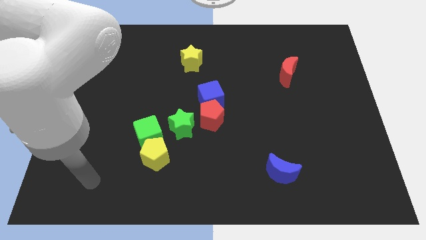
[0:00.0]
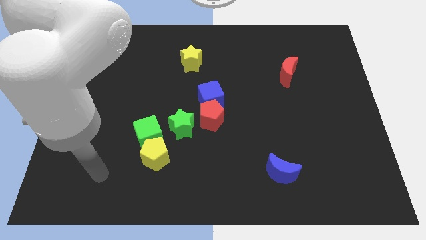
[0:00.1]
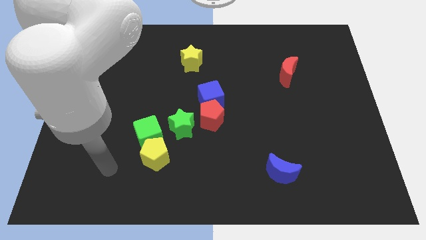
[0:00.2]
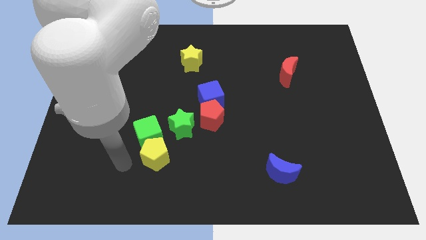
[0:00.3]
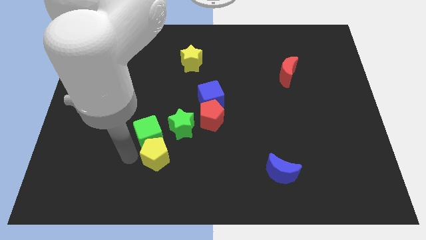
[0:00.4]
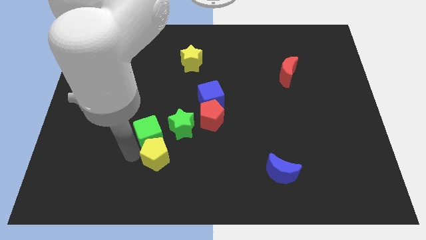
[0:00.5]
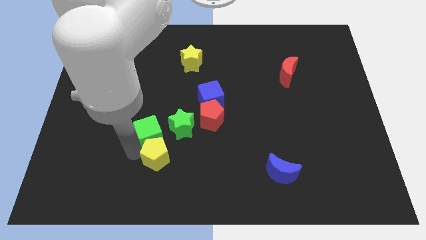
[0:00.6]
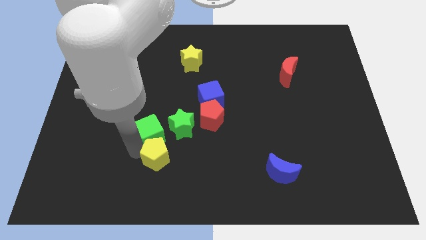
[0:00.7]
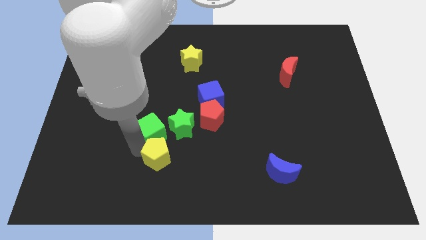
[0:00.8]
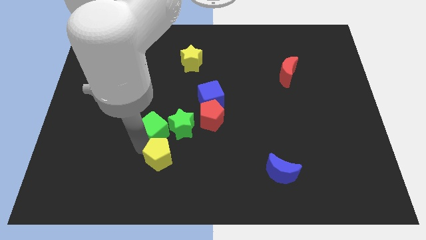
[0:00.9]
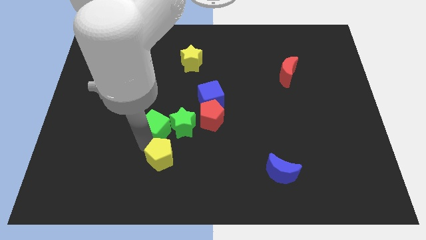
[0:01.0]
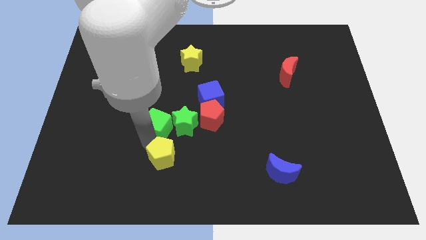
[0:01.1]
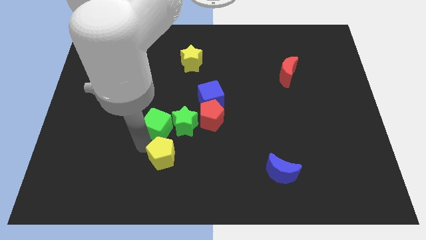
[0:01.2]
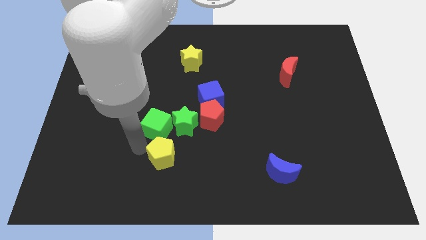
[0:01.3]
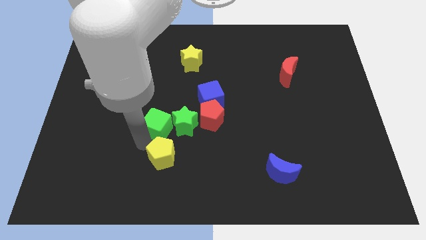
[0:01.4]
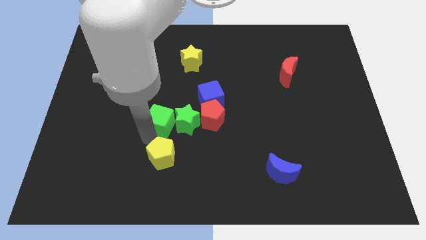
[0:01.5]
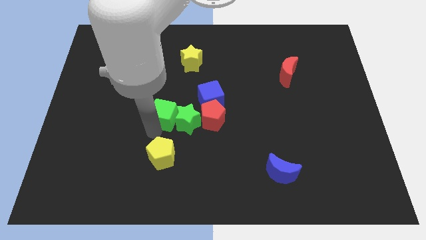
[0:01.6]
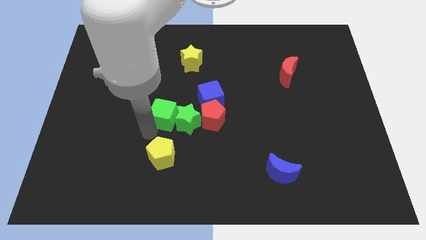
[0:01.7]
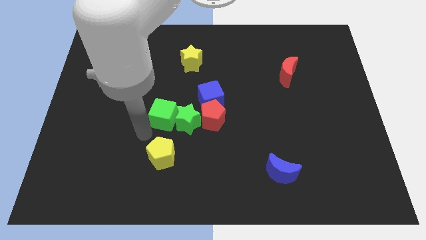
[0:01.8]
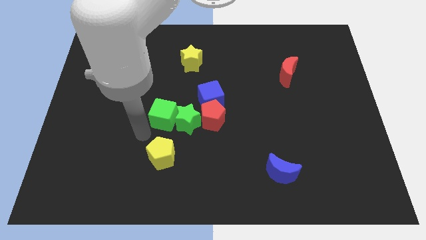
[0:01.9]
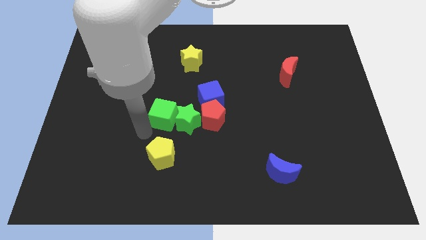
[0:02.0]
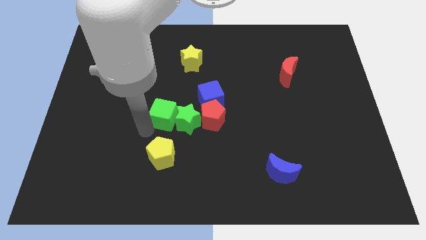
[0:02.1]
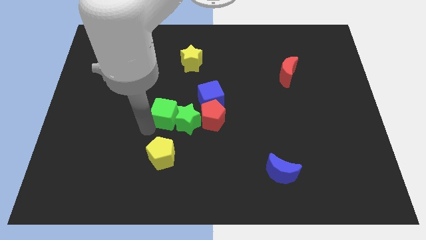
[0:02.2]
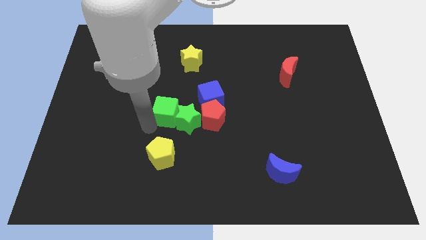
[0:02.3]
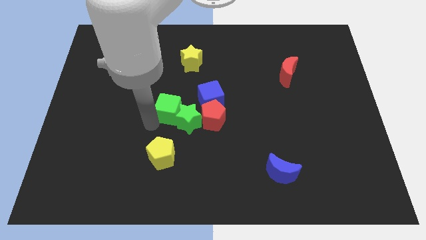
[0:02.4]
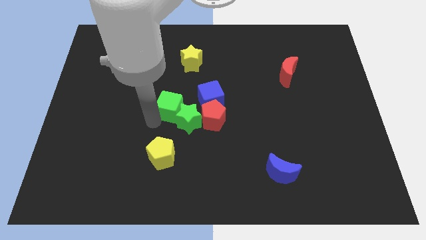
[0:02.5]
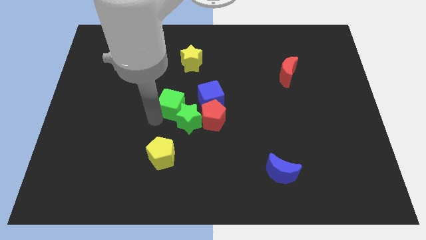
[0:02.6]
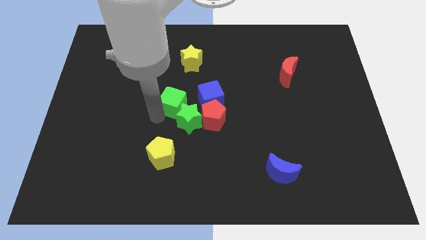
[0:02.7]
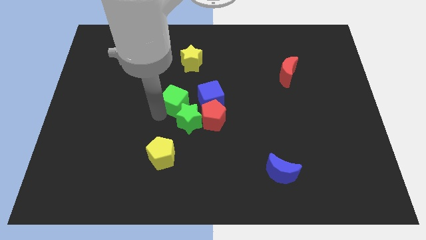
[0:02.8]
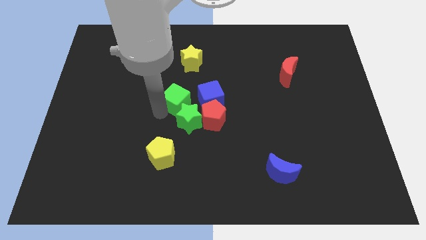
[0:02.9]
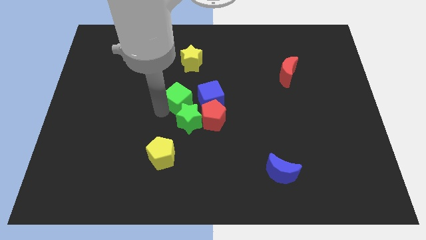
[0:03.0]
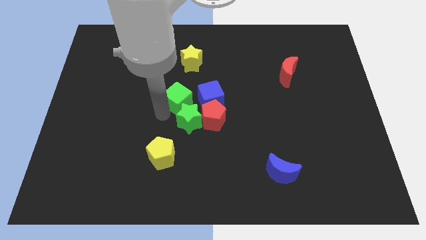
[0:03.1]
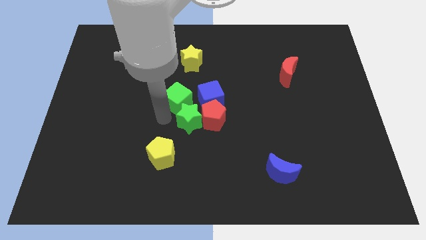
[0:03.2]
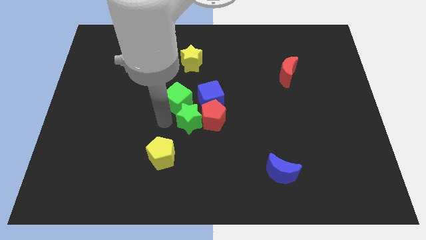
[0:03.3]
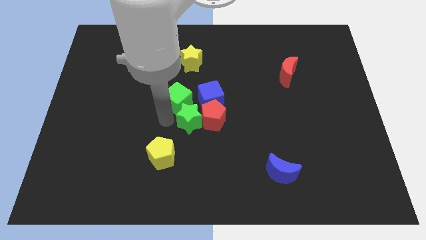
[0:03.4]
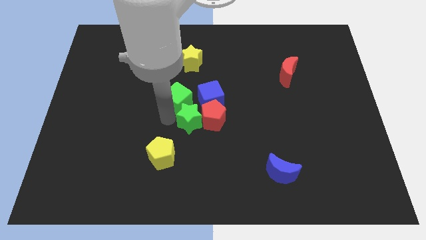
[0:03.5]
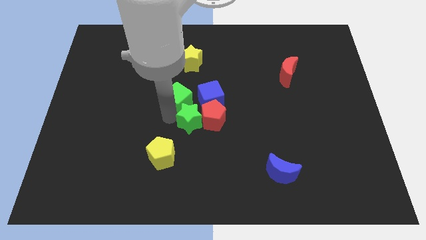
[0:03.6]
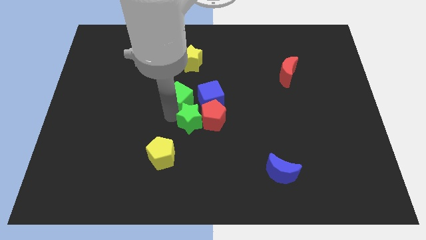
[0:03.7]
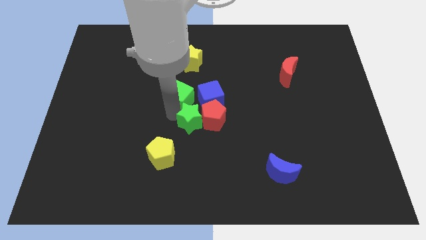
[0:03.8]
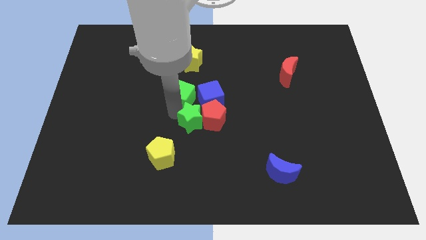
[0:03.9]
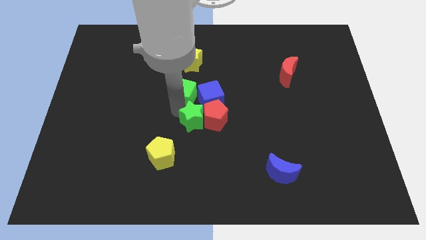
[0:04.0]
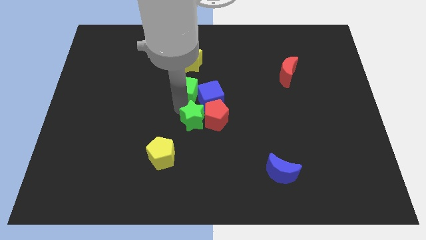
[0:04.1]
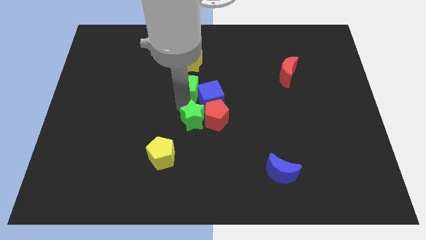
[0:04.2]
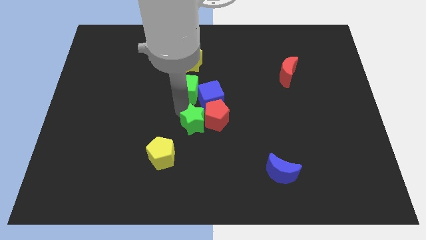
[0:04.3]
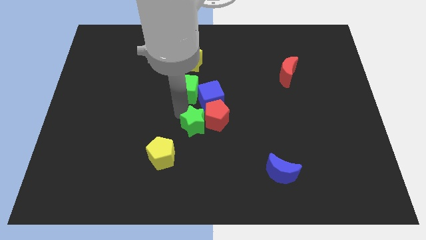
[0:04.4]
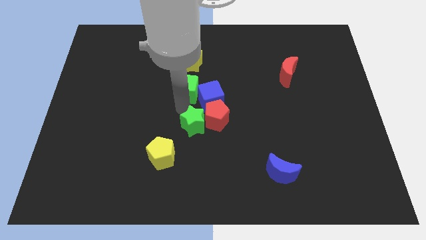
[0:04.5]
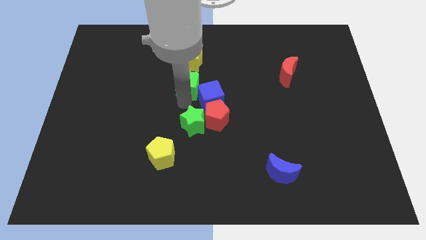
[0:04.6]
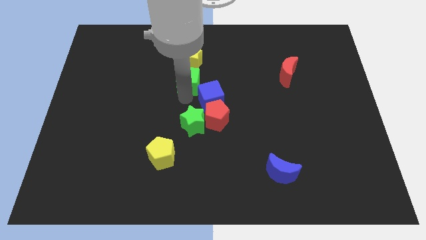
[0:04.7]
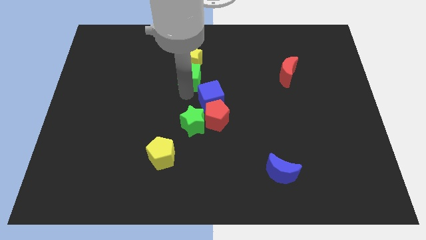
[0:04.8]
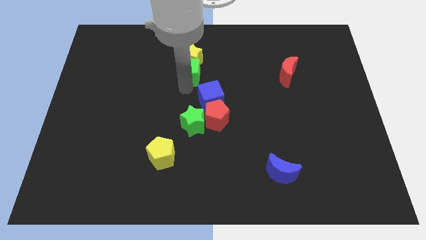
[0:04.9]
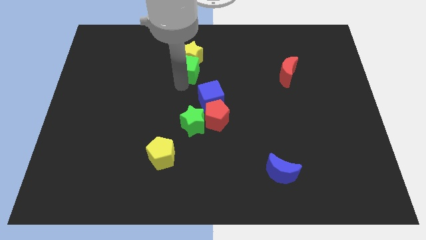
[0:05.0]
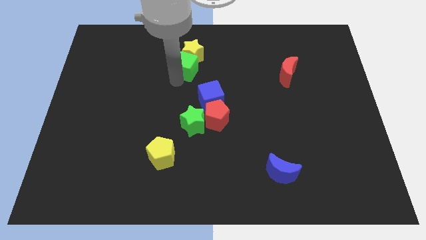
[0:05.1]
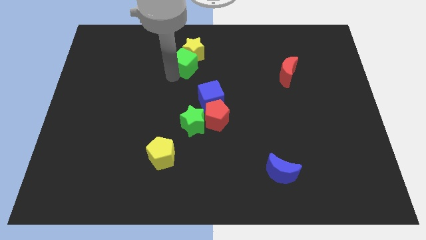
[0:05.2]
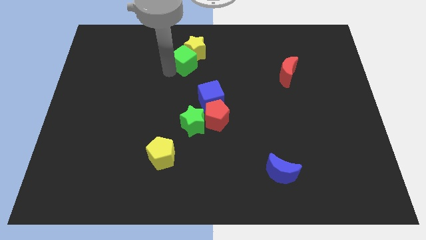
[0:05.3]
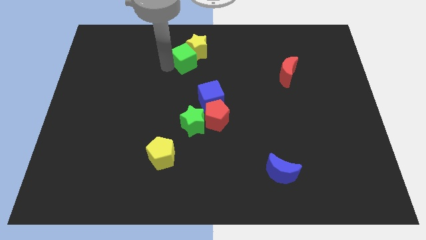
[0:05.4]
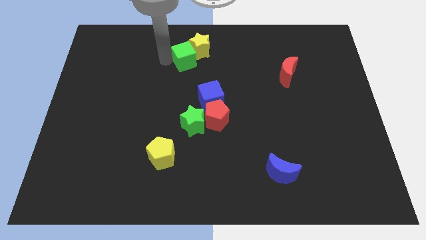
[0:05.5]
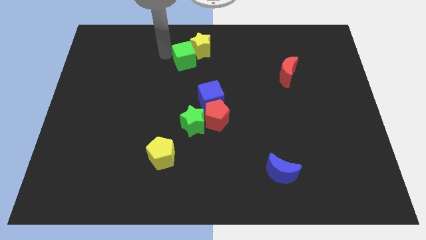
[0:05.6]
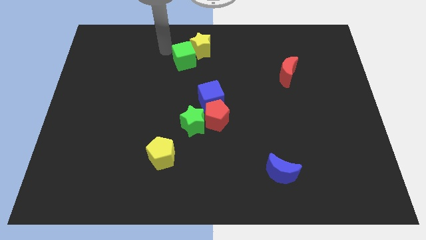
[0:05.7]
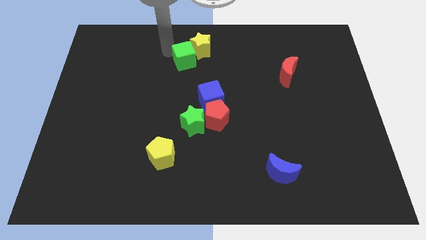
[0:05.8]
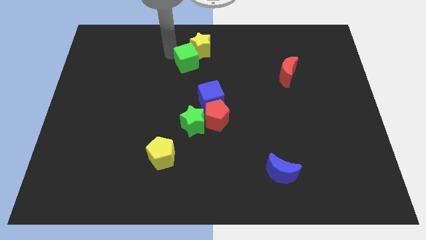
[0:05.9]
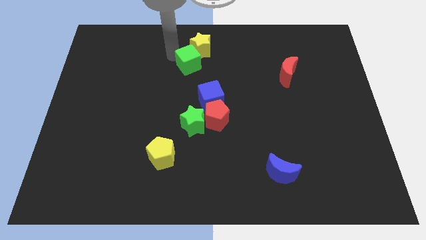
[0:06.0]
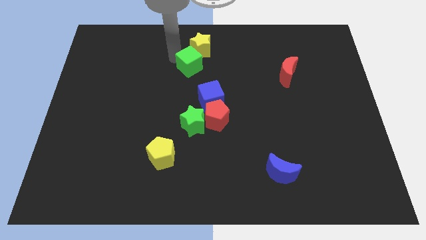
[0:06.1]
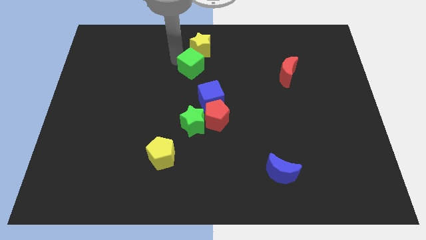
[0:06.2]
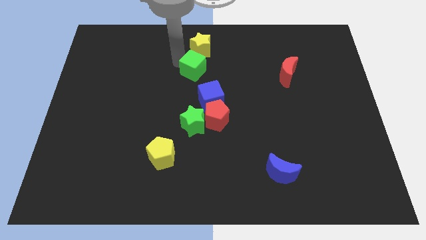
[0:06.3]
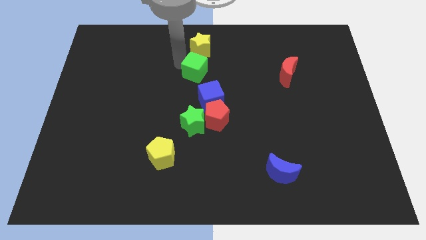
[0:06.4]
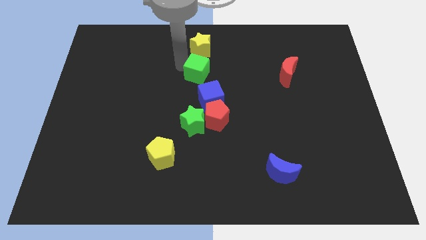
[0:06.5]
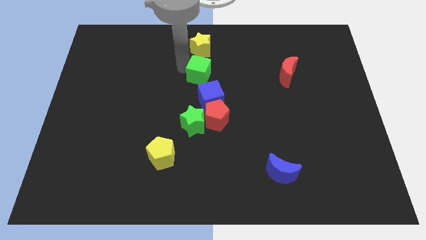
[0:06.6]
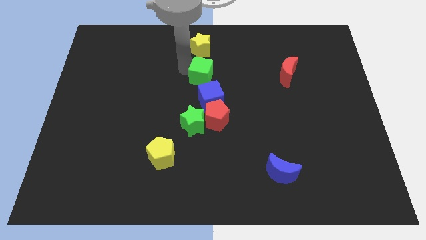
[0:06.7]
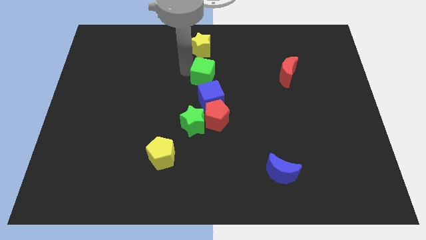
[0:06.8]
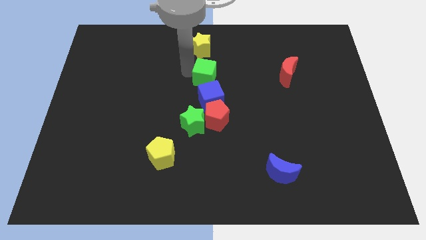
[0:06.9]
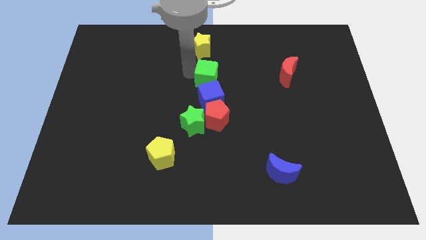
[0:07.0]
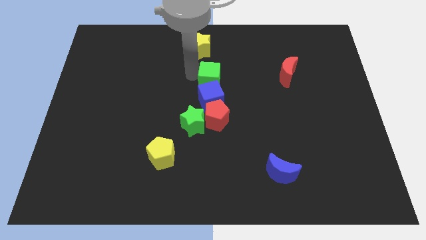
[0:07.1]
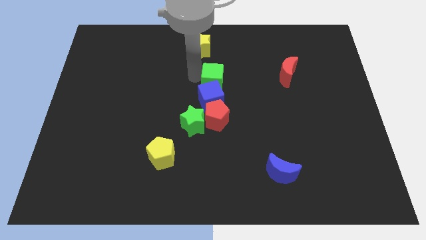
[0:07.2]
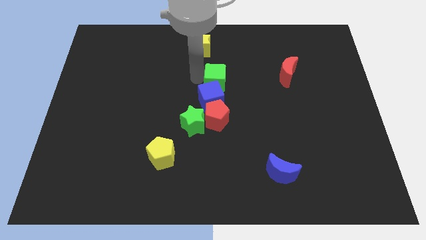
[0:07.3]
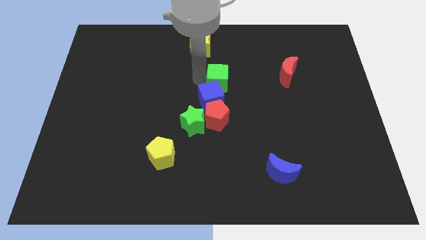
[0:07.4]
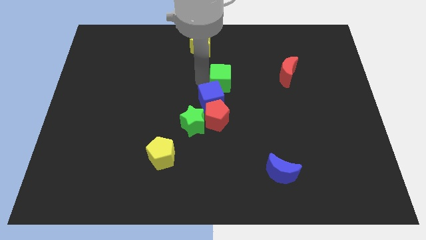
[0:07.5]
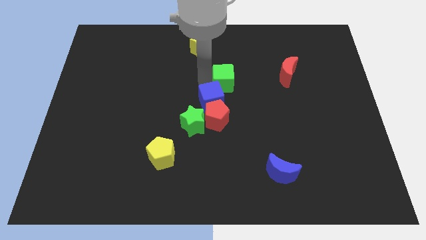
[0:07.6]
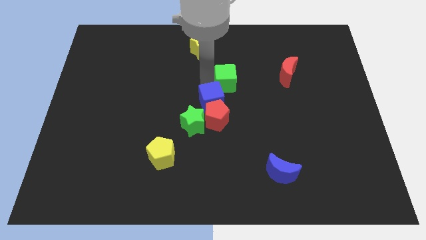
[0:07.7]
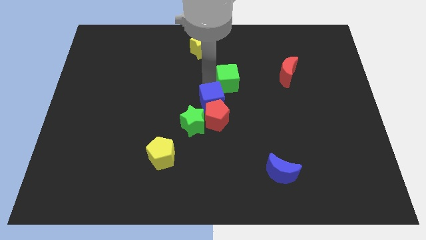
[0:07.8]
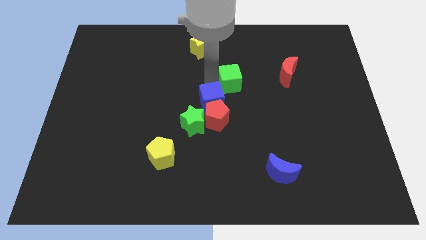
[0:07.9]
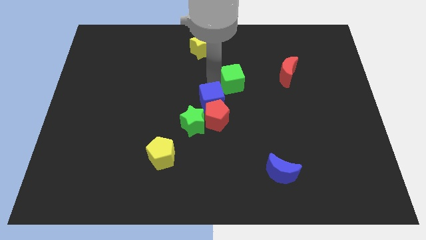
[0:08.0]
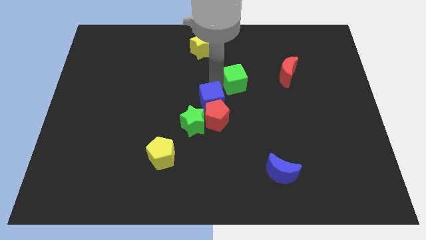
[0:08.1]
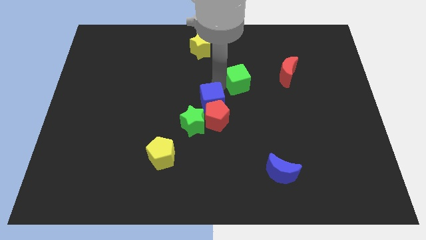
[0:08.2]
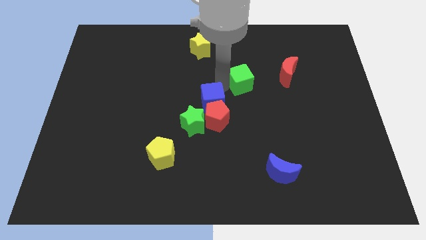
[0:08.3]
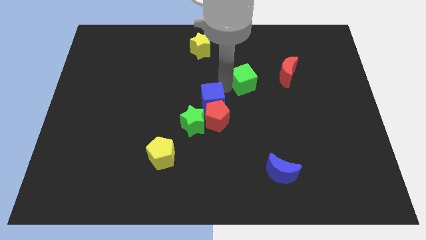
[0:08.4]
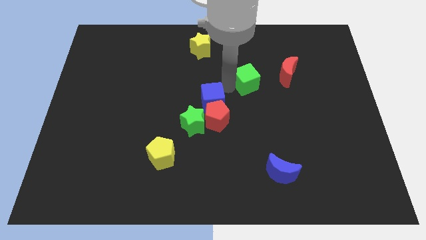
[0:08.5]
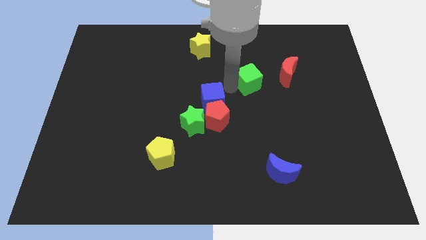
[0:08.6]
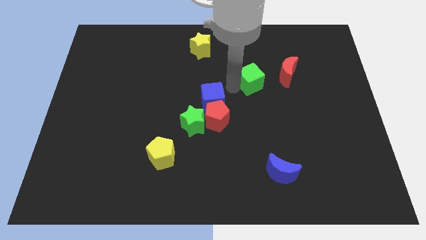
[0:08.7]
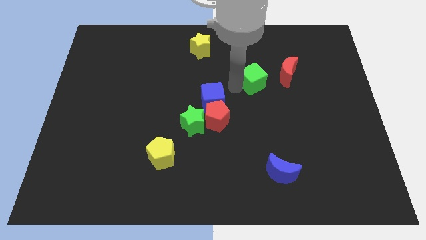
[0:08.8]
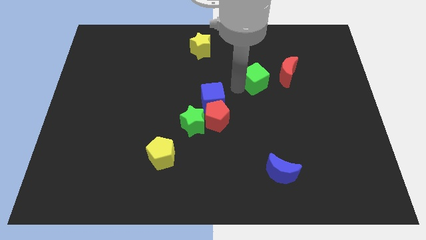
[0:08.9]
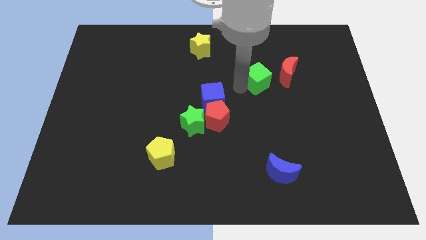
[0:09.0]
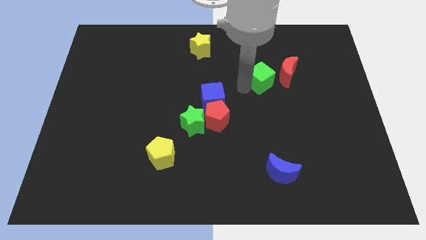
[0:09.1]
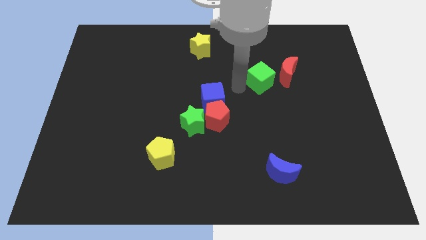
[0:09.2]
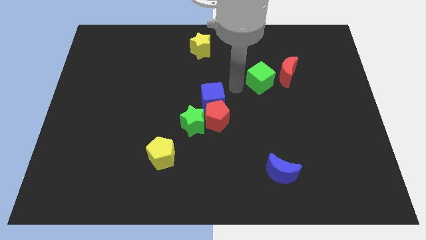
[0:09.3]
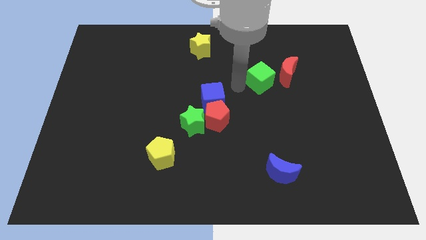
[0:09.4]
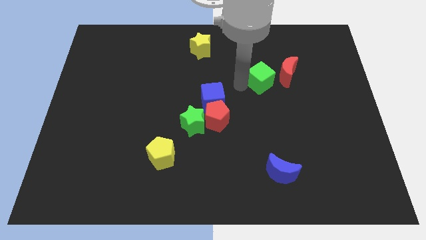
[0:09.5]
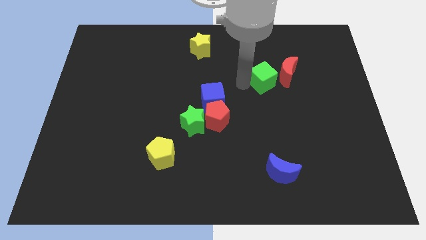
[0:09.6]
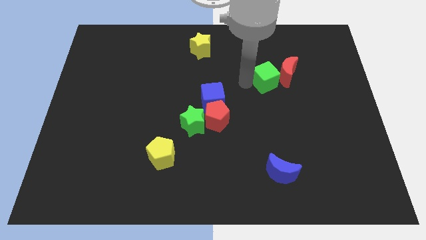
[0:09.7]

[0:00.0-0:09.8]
put the green cube to the red moon
